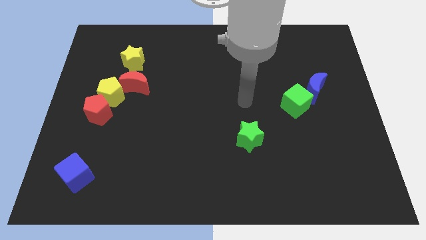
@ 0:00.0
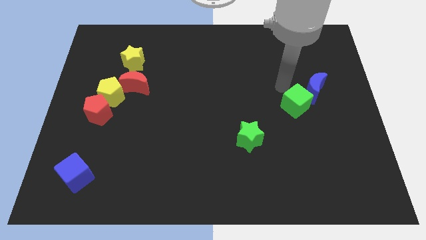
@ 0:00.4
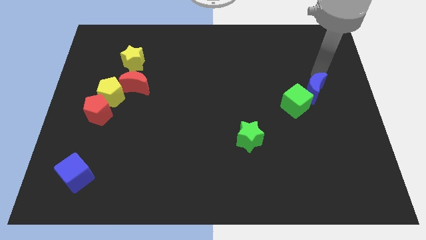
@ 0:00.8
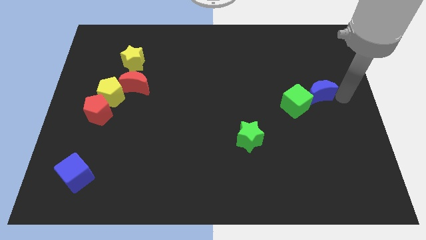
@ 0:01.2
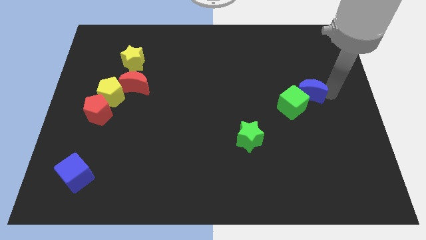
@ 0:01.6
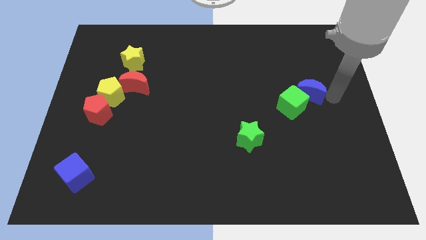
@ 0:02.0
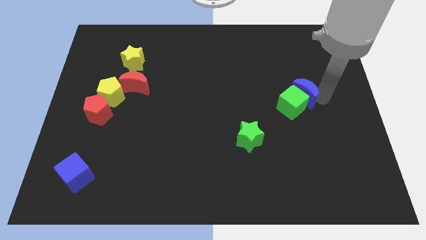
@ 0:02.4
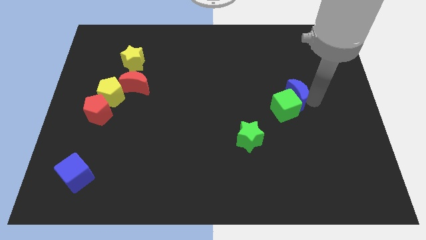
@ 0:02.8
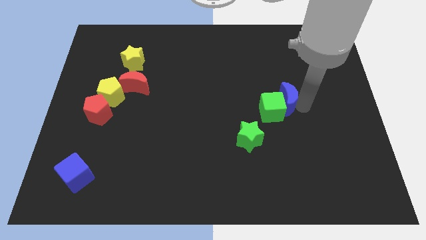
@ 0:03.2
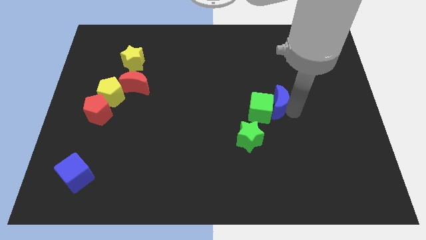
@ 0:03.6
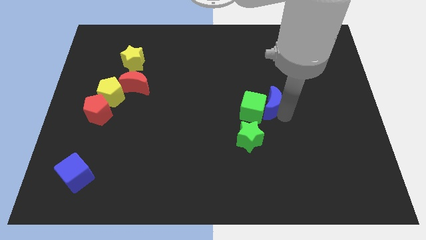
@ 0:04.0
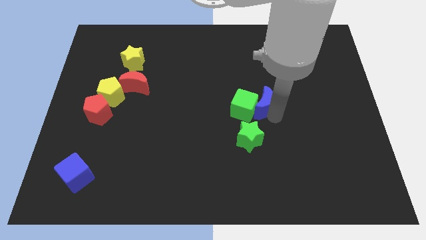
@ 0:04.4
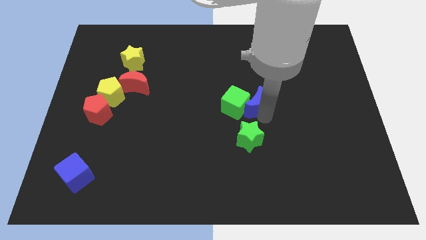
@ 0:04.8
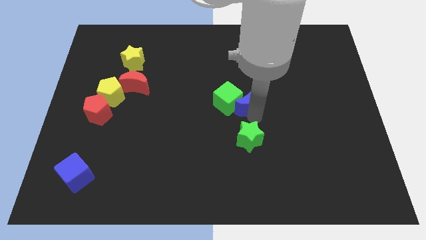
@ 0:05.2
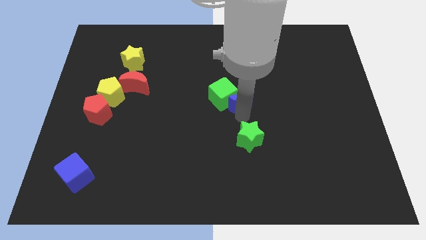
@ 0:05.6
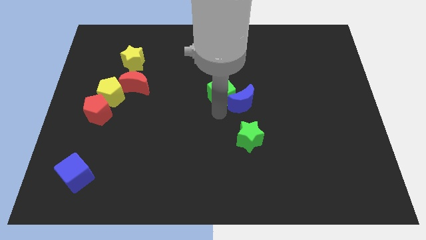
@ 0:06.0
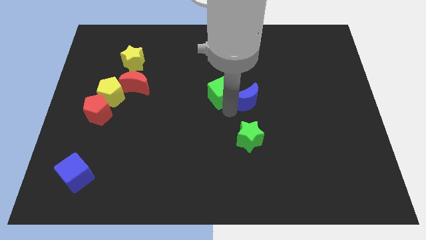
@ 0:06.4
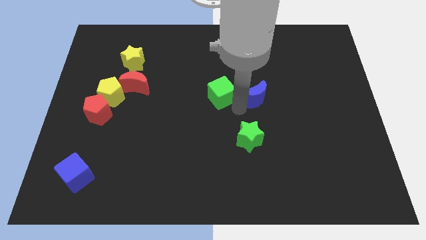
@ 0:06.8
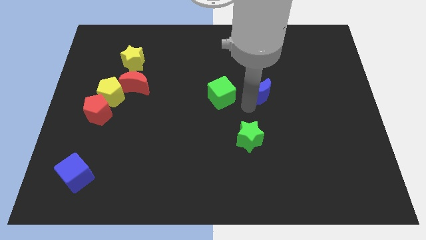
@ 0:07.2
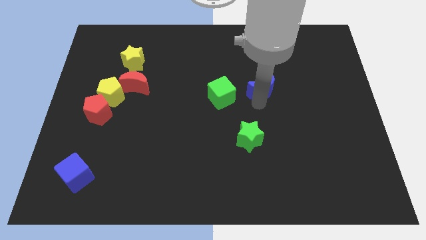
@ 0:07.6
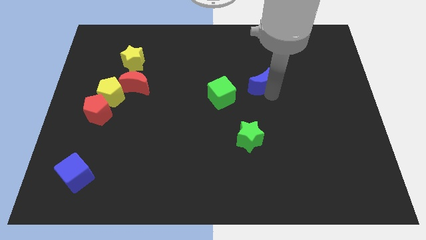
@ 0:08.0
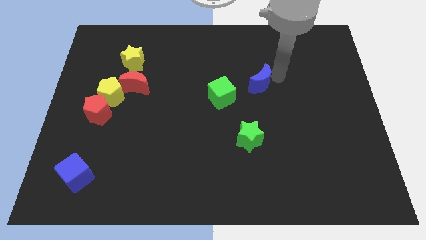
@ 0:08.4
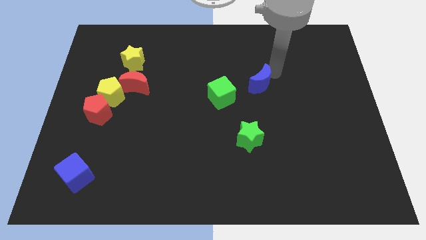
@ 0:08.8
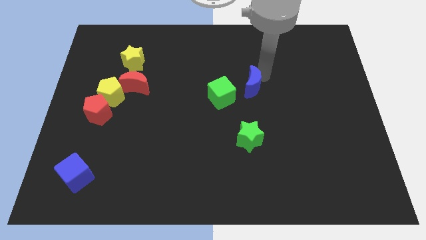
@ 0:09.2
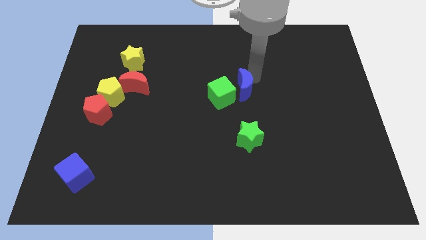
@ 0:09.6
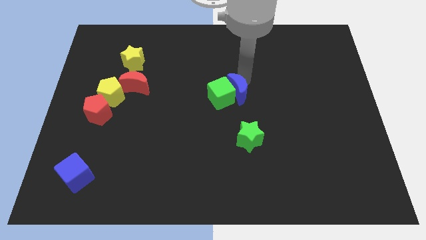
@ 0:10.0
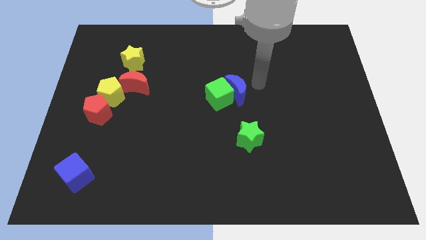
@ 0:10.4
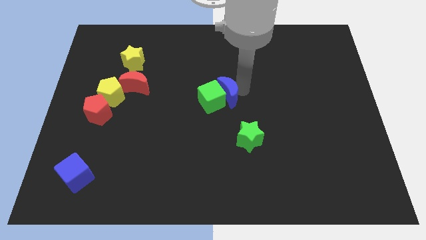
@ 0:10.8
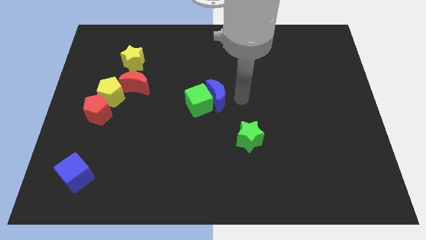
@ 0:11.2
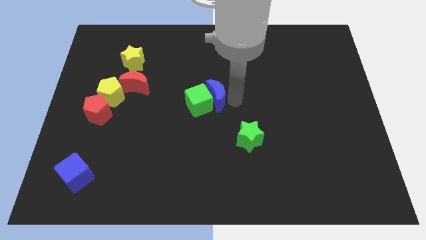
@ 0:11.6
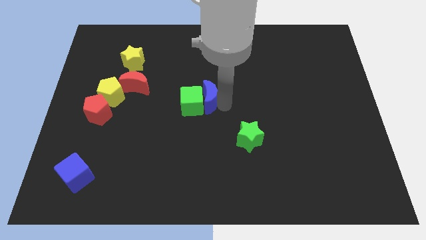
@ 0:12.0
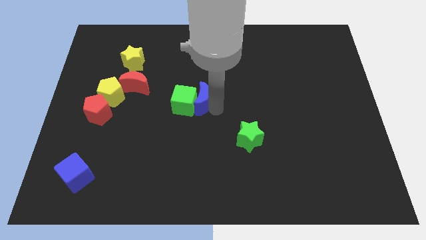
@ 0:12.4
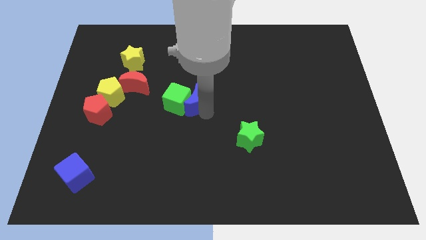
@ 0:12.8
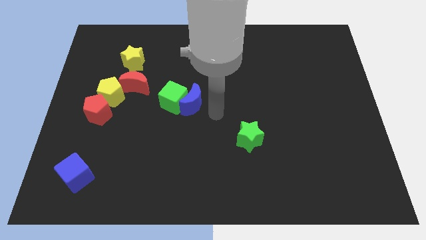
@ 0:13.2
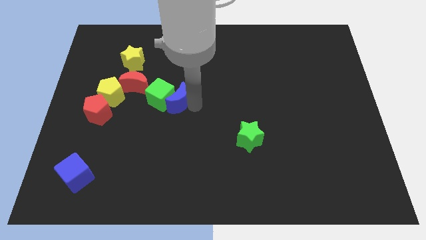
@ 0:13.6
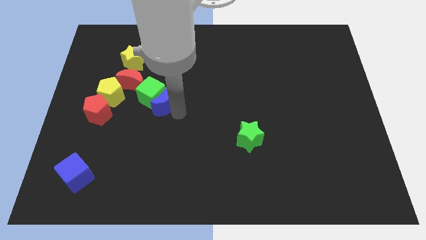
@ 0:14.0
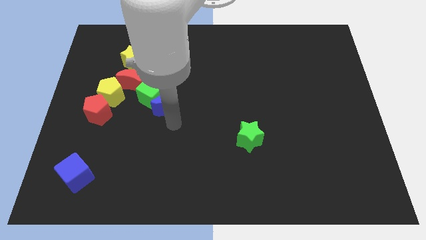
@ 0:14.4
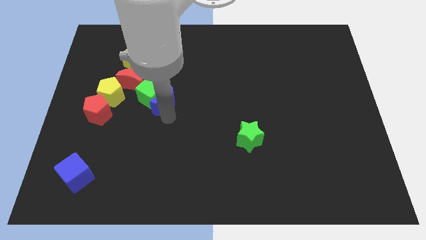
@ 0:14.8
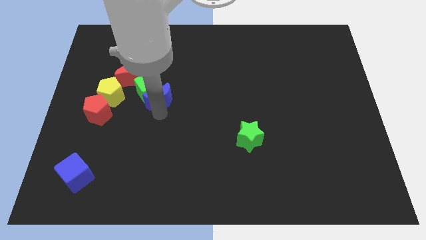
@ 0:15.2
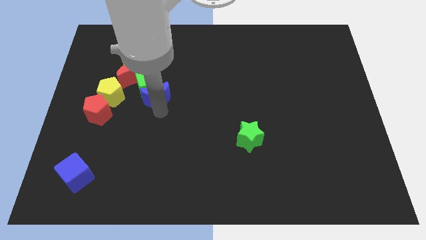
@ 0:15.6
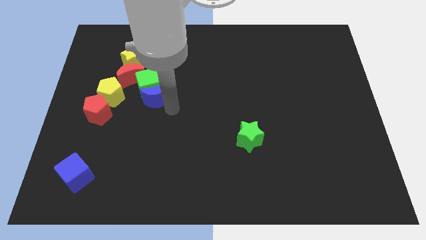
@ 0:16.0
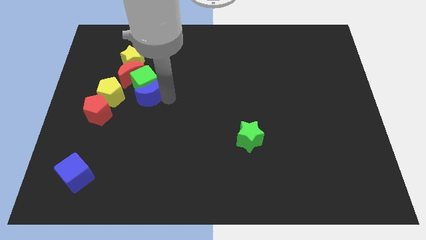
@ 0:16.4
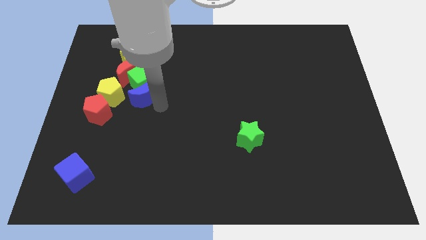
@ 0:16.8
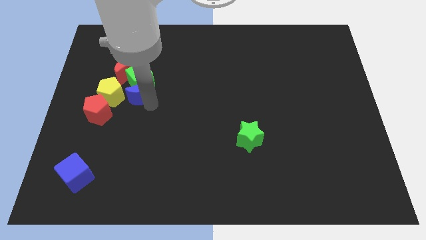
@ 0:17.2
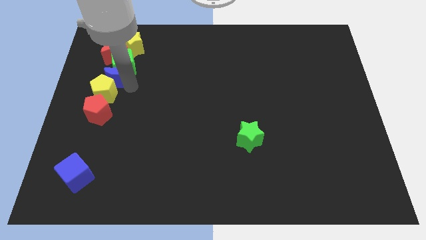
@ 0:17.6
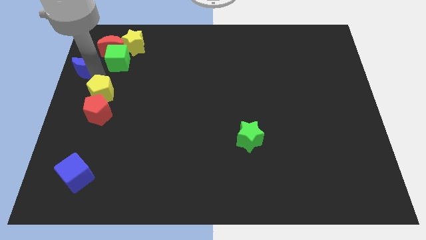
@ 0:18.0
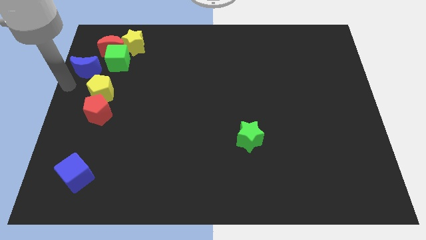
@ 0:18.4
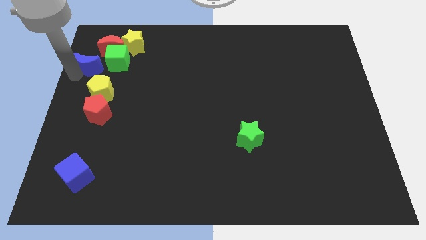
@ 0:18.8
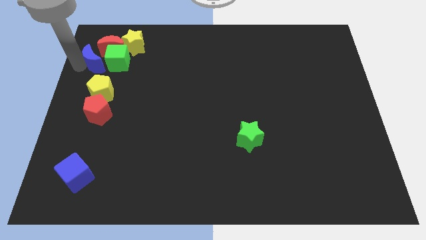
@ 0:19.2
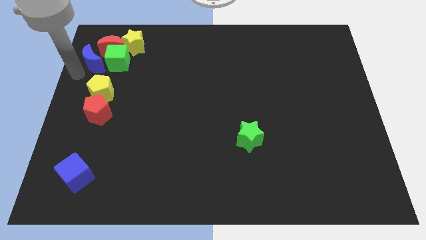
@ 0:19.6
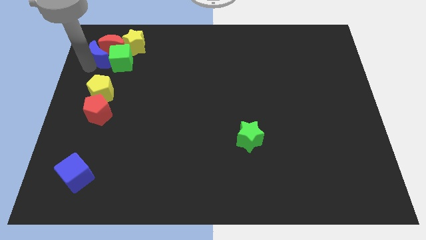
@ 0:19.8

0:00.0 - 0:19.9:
slide the blue moon to the red moon

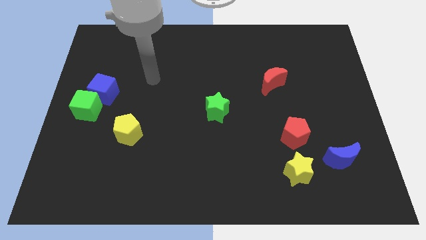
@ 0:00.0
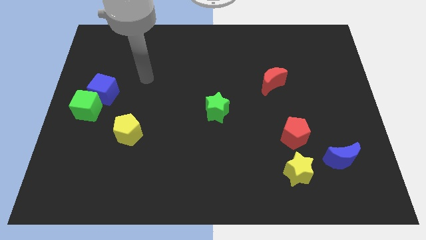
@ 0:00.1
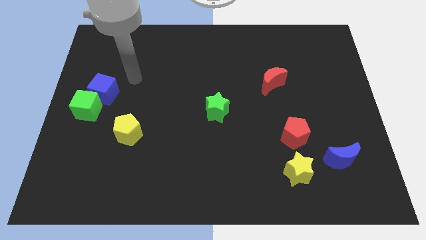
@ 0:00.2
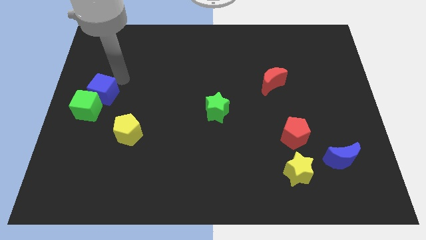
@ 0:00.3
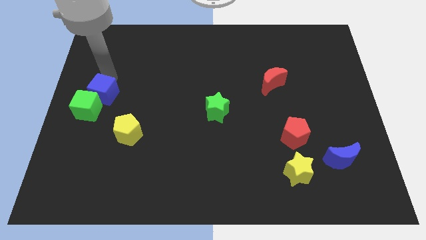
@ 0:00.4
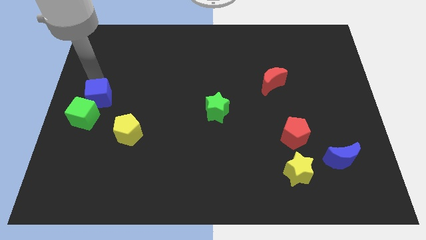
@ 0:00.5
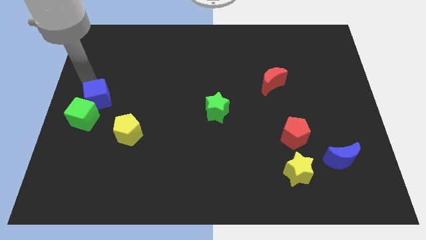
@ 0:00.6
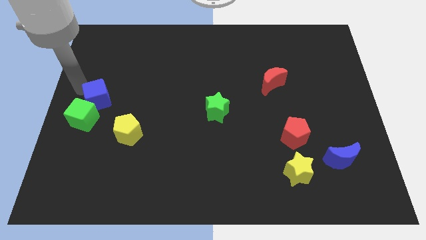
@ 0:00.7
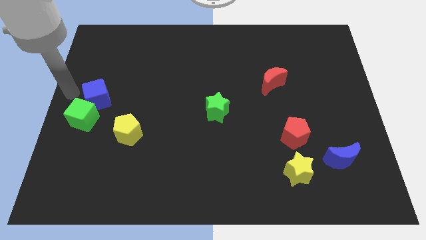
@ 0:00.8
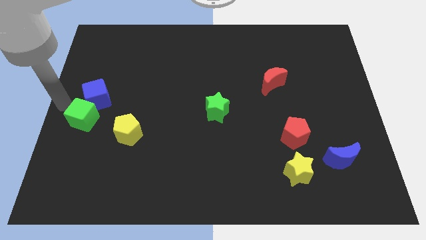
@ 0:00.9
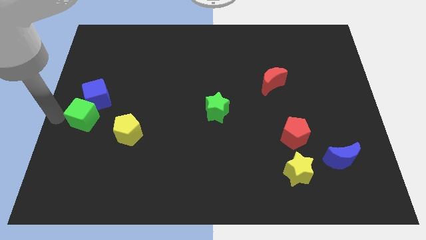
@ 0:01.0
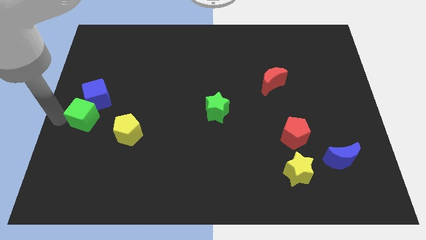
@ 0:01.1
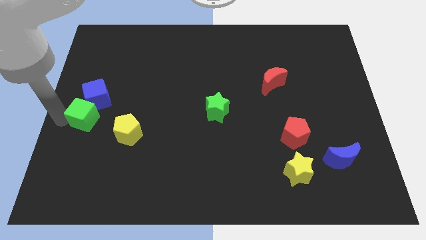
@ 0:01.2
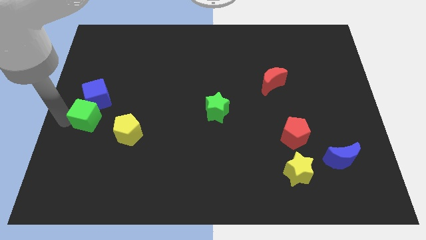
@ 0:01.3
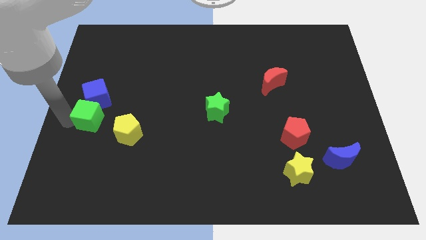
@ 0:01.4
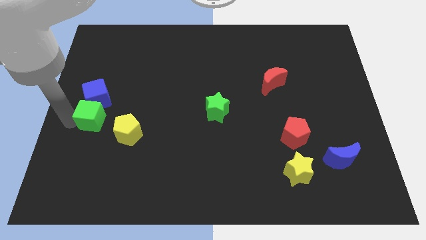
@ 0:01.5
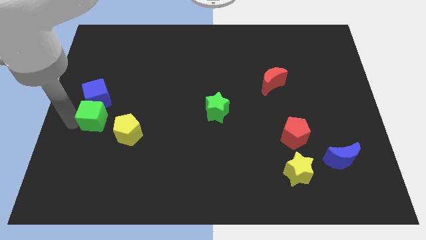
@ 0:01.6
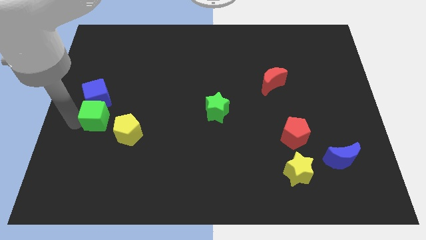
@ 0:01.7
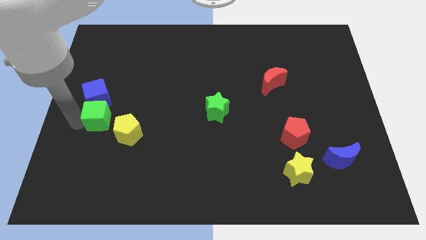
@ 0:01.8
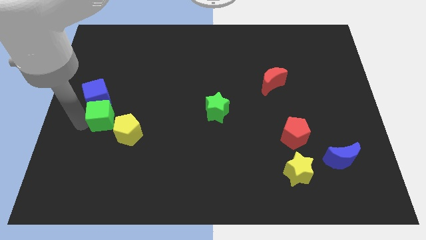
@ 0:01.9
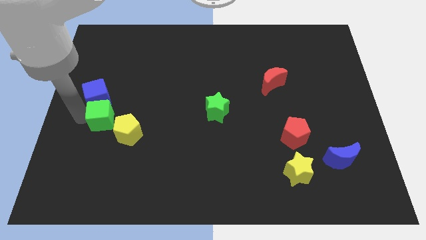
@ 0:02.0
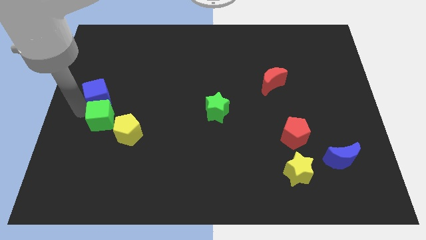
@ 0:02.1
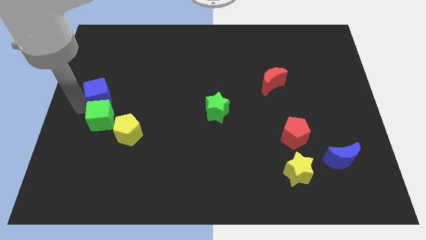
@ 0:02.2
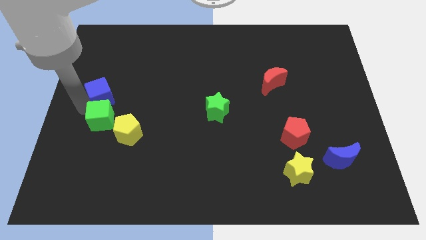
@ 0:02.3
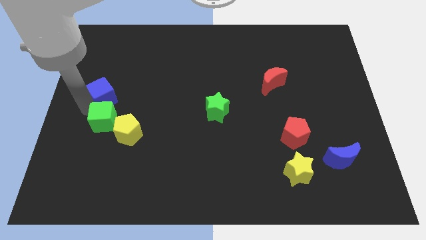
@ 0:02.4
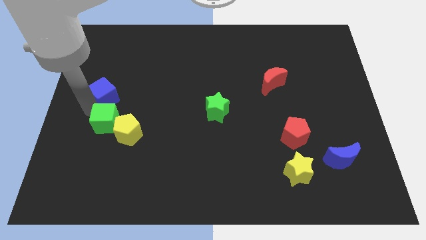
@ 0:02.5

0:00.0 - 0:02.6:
move the green cube to the yellow pentagon
